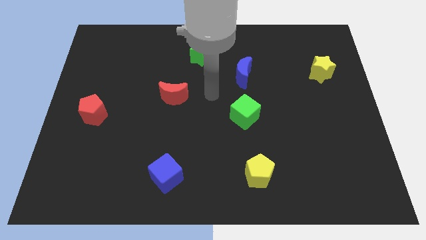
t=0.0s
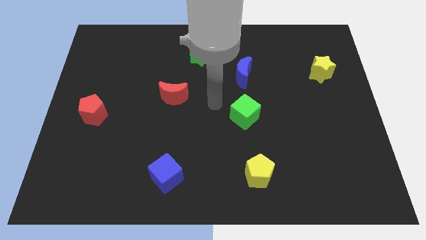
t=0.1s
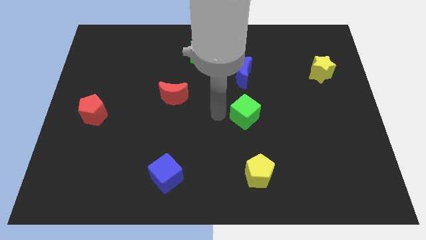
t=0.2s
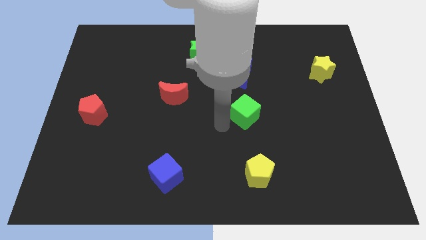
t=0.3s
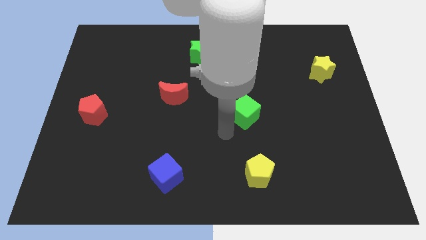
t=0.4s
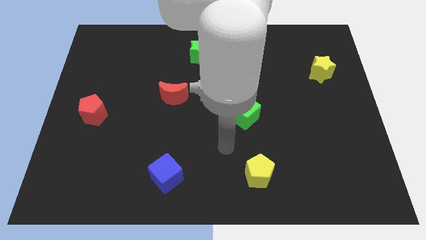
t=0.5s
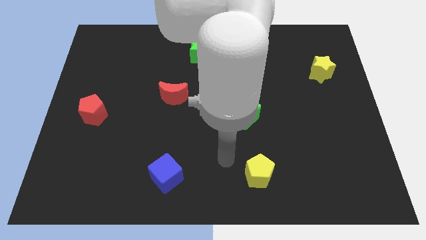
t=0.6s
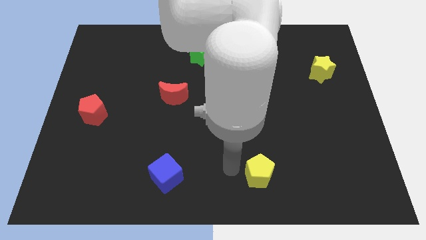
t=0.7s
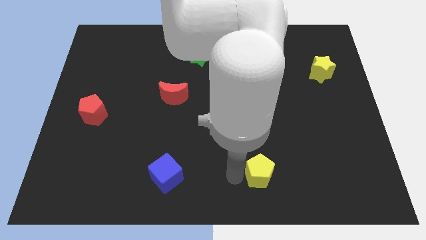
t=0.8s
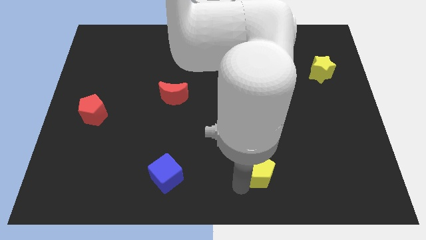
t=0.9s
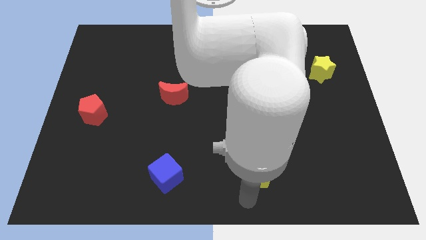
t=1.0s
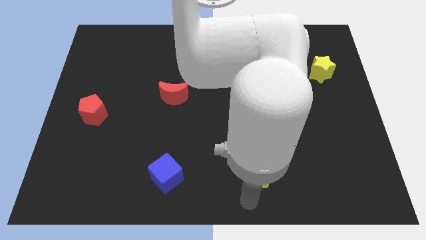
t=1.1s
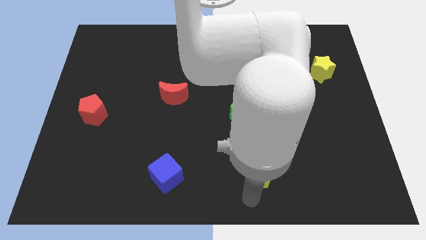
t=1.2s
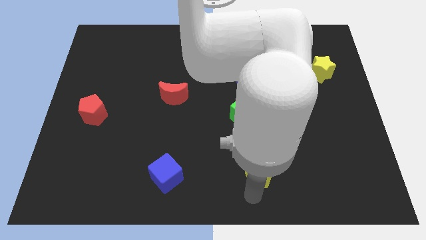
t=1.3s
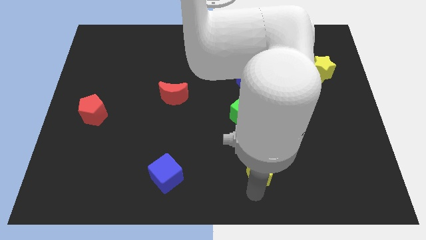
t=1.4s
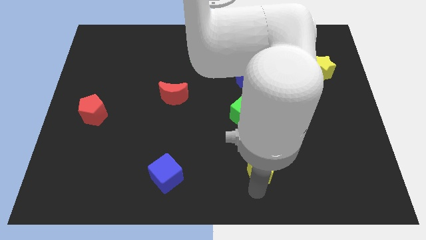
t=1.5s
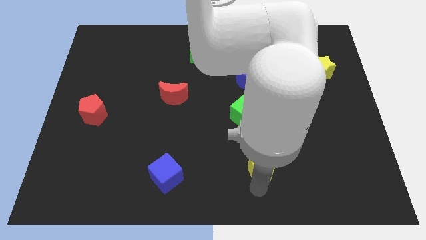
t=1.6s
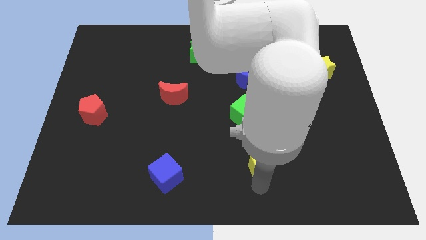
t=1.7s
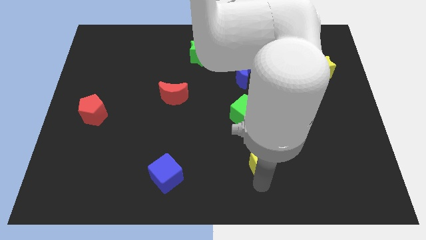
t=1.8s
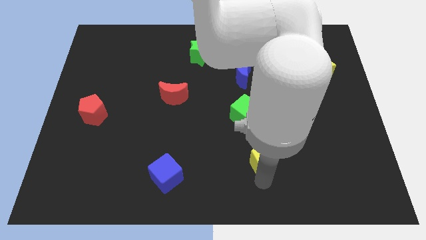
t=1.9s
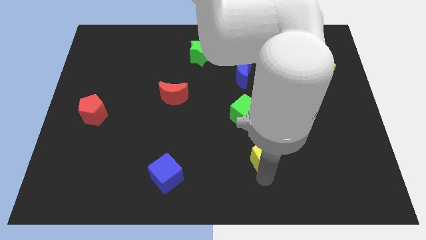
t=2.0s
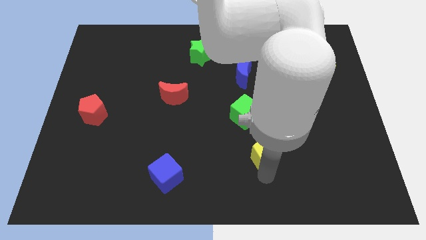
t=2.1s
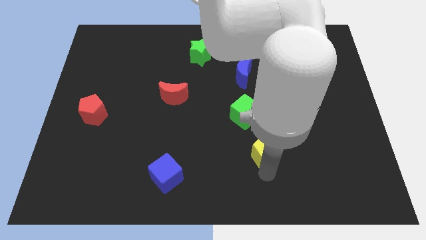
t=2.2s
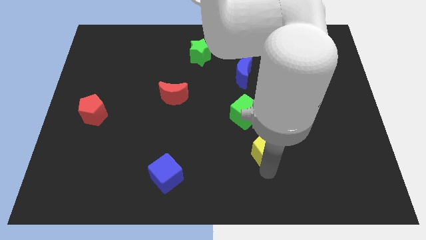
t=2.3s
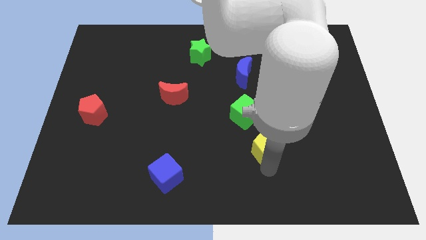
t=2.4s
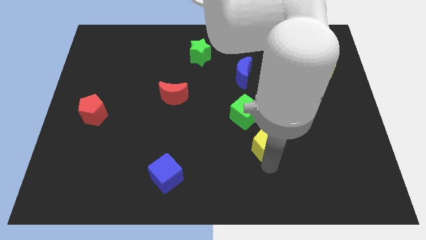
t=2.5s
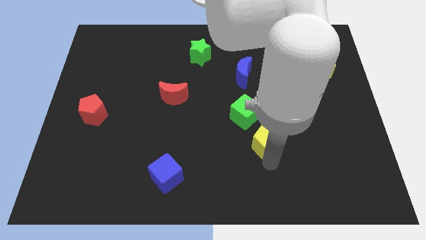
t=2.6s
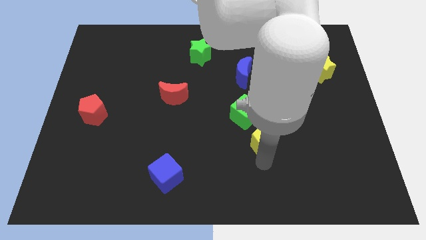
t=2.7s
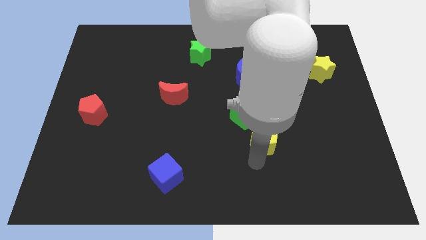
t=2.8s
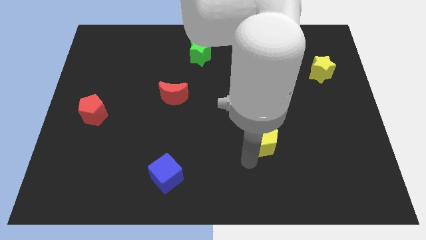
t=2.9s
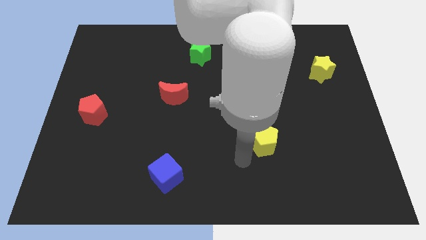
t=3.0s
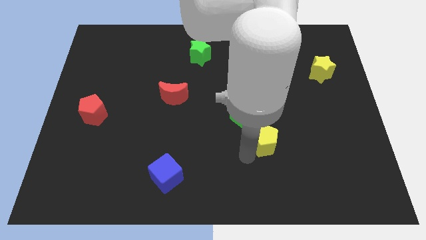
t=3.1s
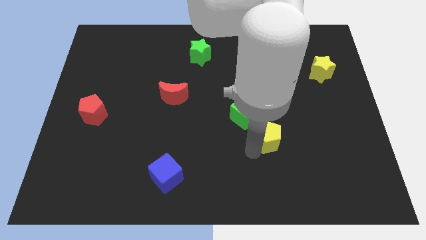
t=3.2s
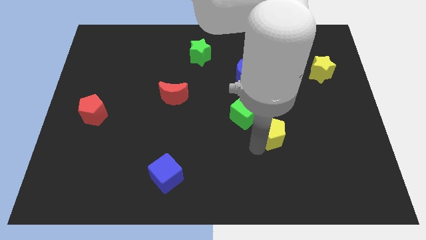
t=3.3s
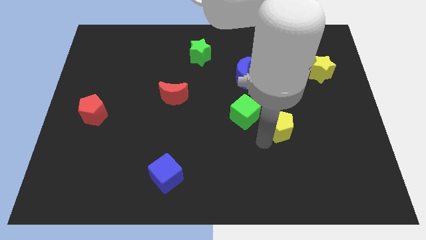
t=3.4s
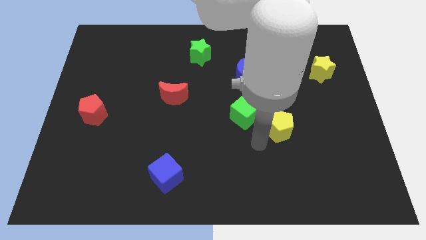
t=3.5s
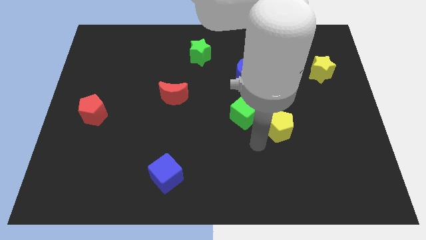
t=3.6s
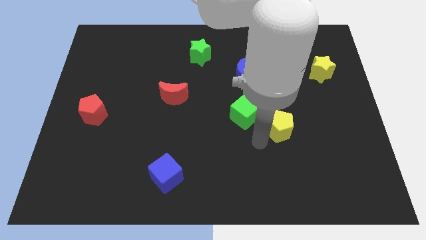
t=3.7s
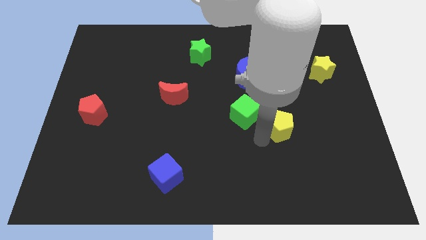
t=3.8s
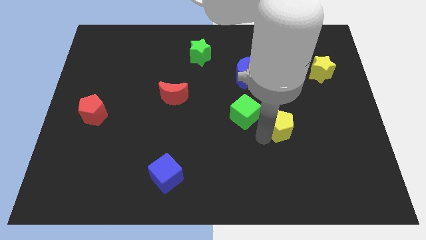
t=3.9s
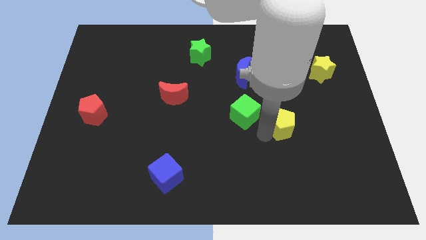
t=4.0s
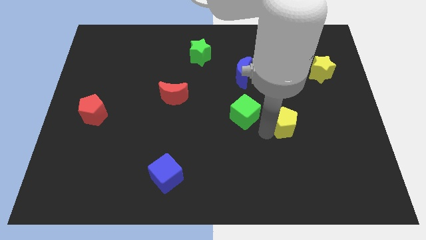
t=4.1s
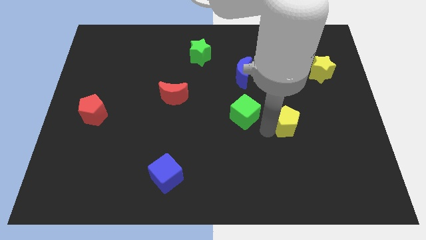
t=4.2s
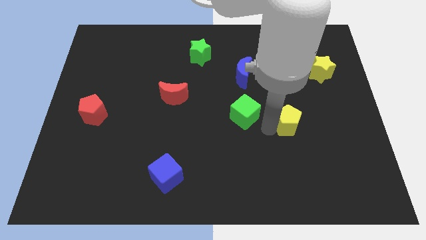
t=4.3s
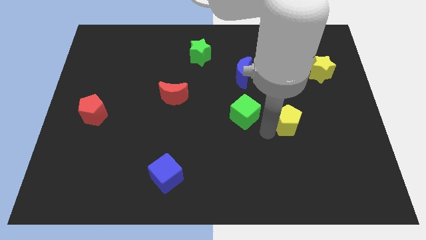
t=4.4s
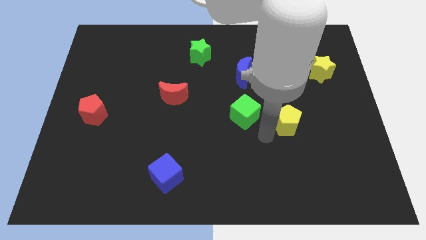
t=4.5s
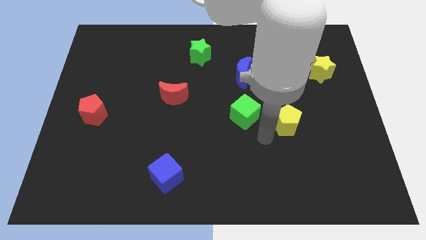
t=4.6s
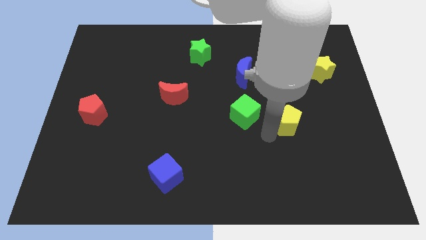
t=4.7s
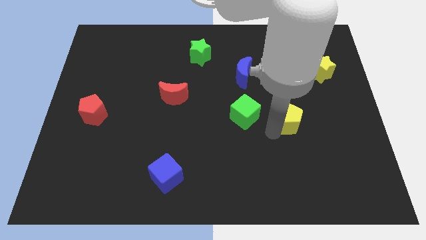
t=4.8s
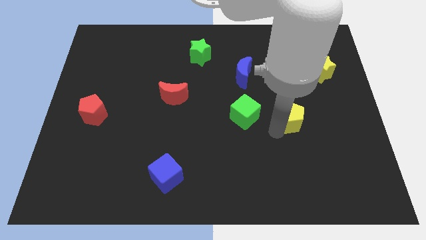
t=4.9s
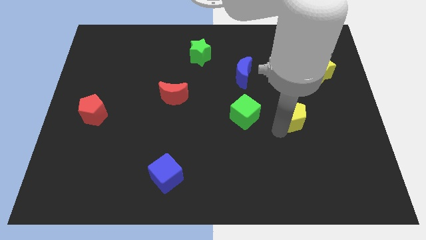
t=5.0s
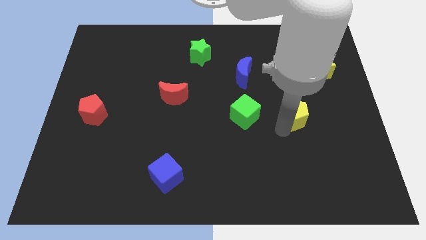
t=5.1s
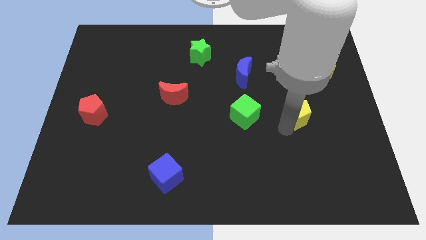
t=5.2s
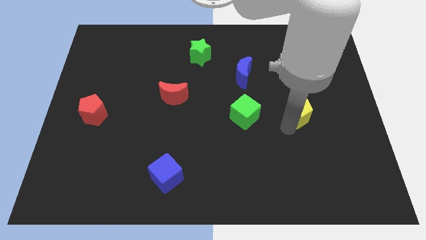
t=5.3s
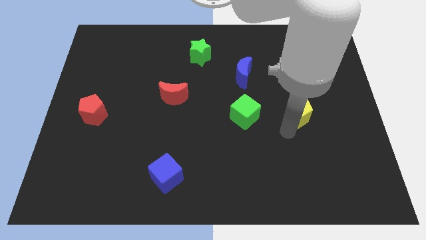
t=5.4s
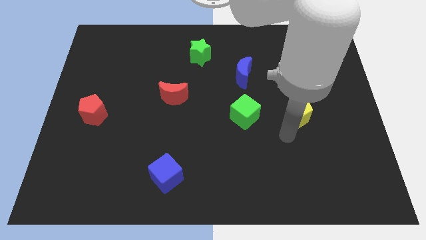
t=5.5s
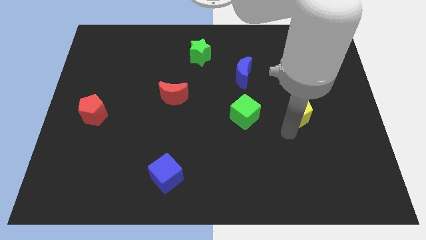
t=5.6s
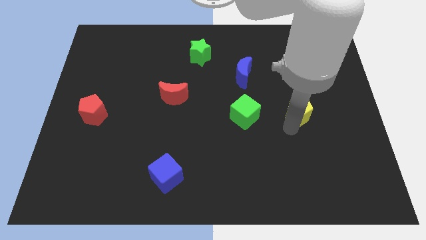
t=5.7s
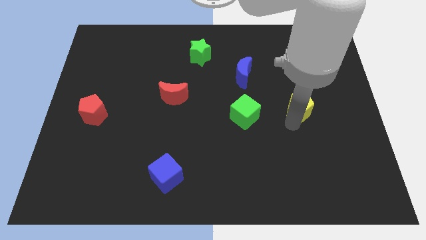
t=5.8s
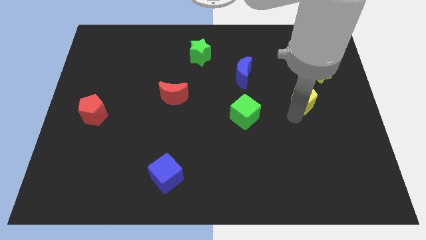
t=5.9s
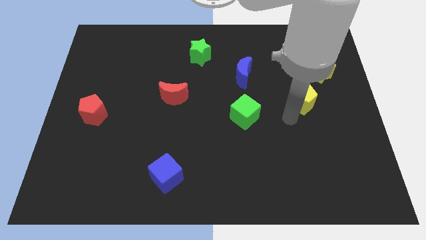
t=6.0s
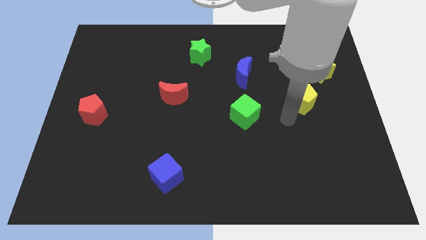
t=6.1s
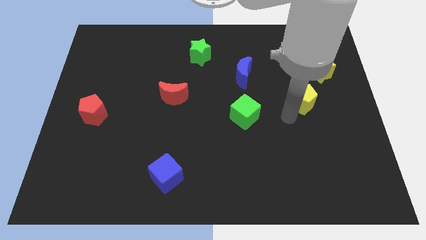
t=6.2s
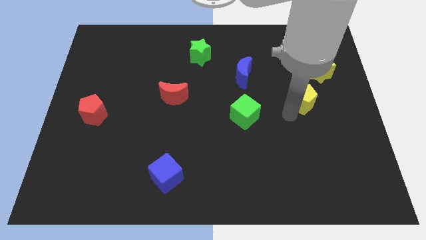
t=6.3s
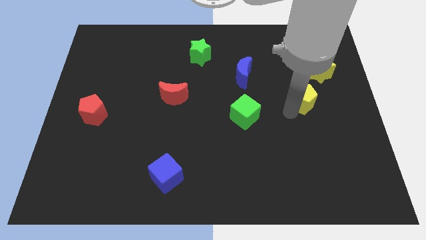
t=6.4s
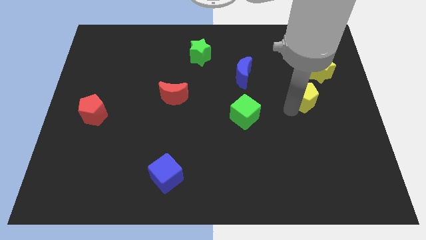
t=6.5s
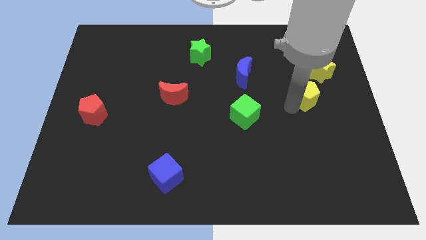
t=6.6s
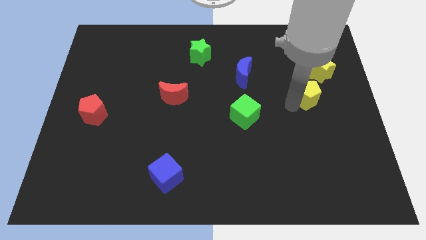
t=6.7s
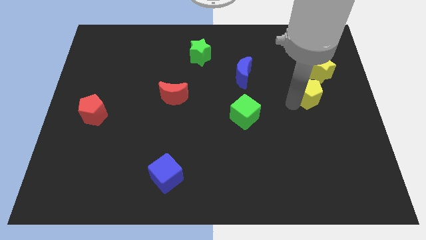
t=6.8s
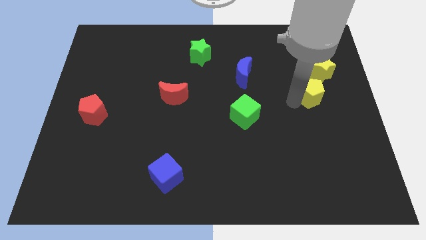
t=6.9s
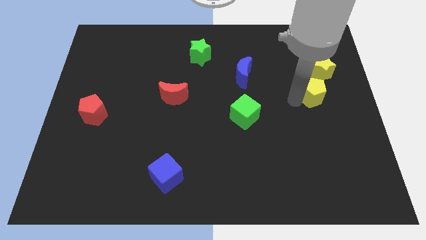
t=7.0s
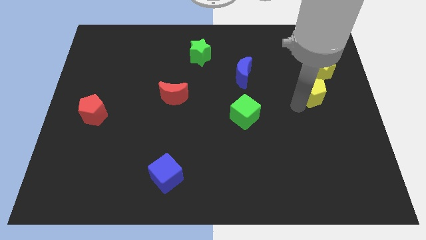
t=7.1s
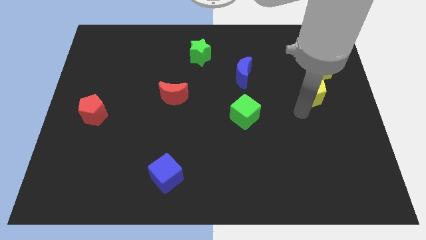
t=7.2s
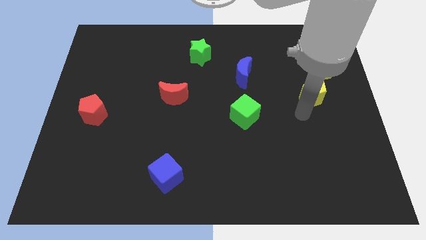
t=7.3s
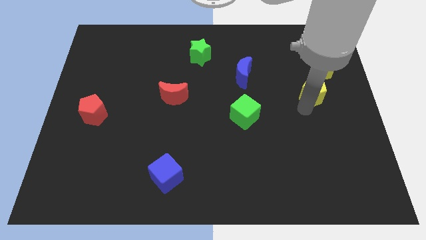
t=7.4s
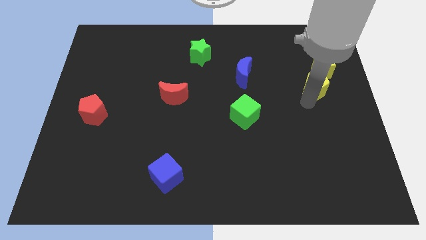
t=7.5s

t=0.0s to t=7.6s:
move the yellow pentagon to the yellow star

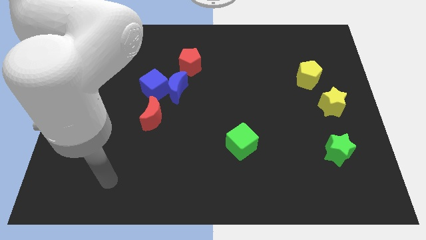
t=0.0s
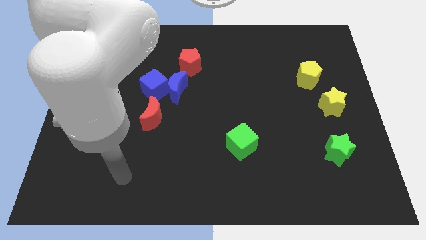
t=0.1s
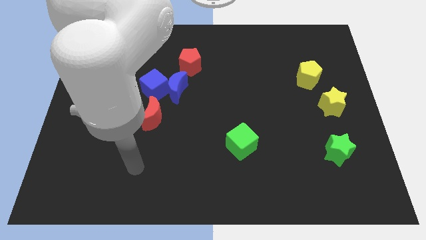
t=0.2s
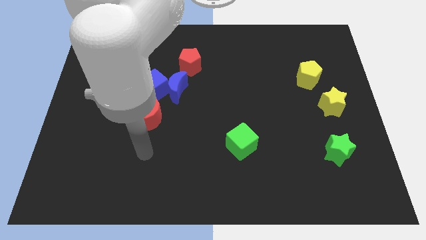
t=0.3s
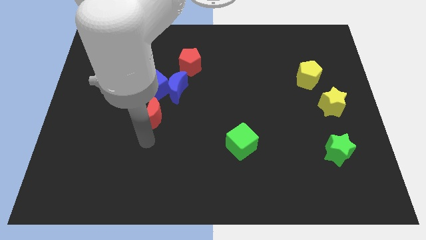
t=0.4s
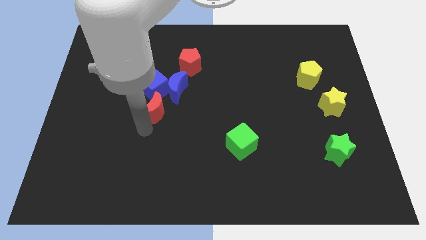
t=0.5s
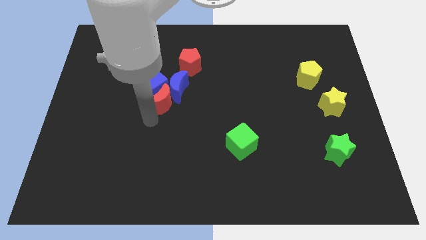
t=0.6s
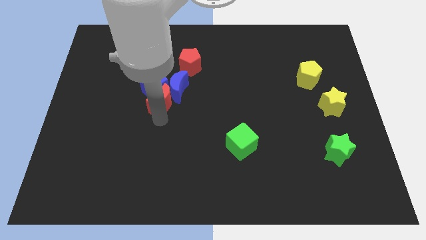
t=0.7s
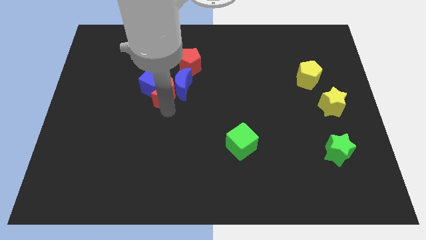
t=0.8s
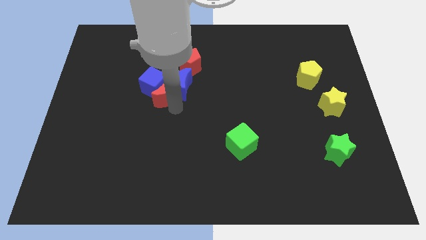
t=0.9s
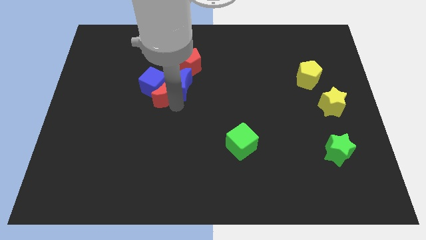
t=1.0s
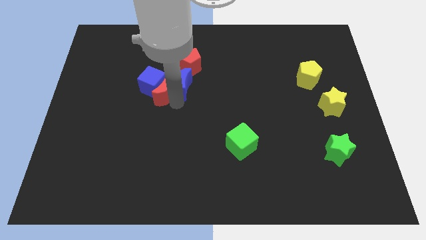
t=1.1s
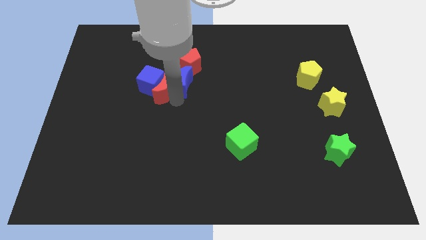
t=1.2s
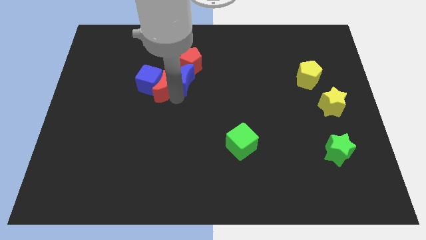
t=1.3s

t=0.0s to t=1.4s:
slide the blue moon to the red pentagon
